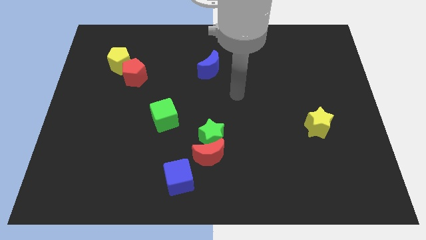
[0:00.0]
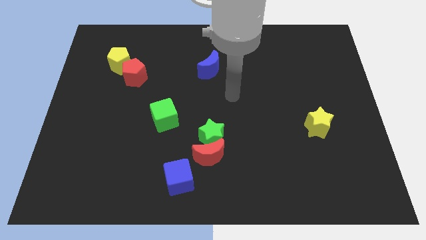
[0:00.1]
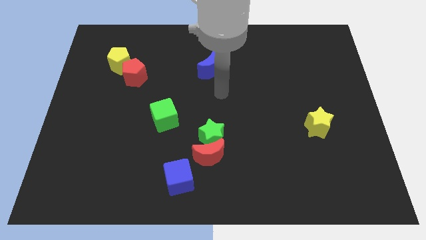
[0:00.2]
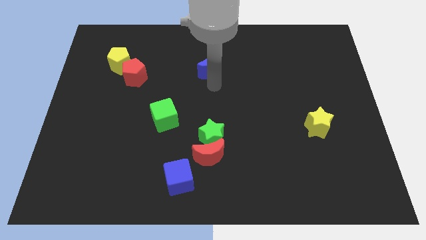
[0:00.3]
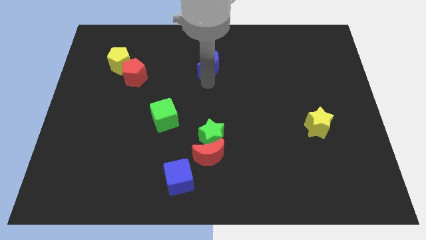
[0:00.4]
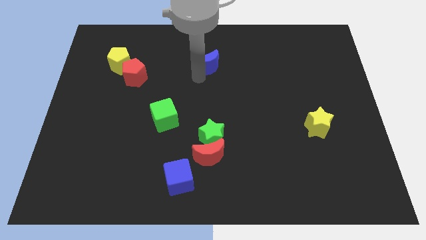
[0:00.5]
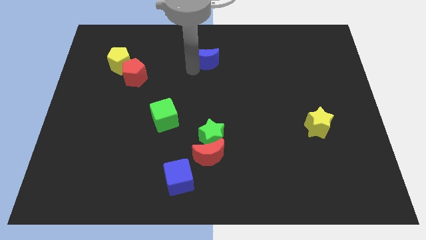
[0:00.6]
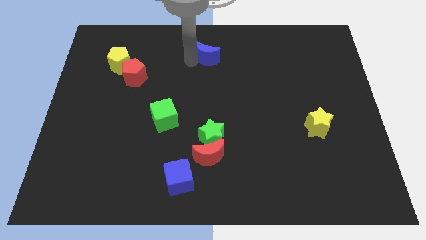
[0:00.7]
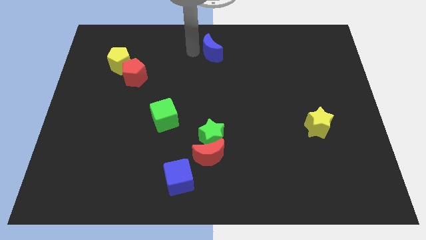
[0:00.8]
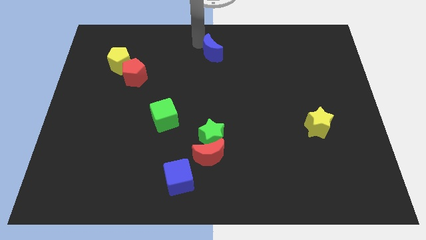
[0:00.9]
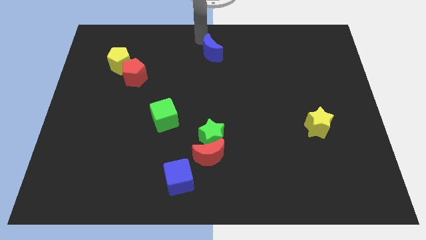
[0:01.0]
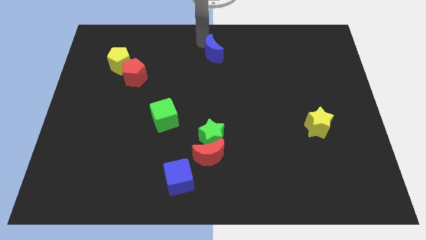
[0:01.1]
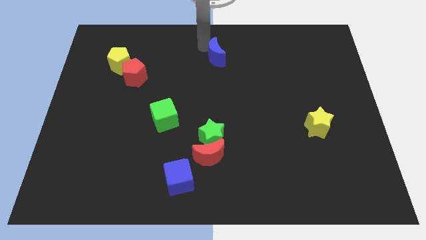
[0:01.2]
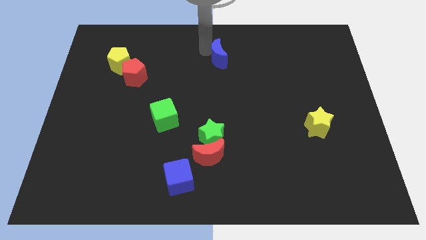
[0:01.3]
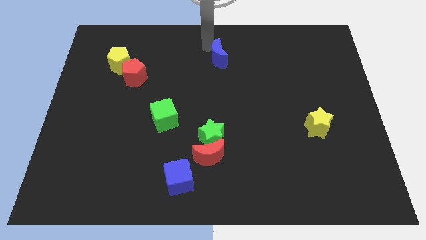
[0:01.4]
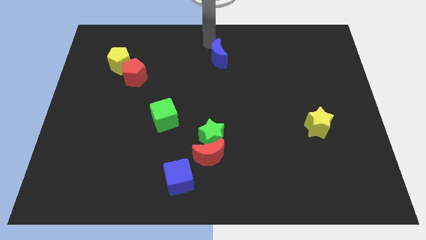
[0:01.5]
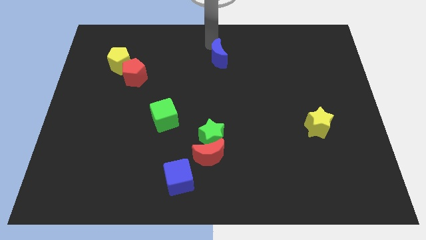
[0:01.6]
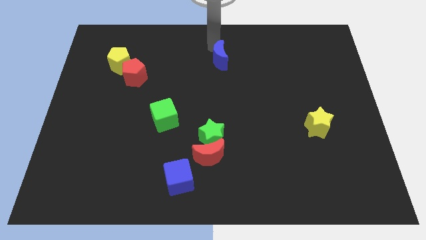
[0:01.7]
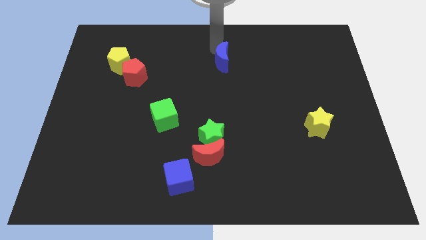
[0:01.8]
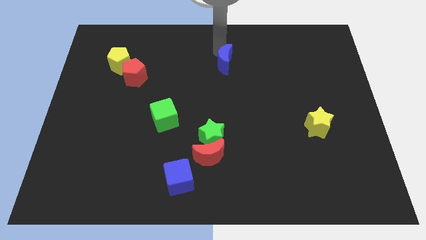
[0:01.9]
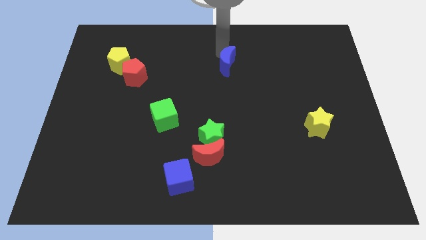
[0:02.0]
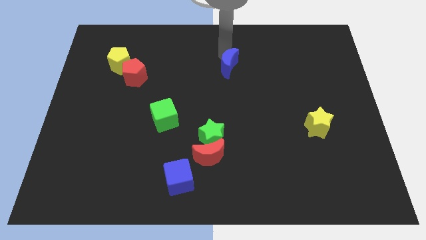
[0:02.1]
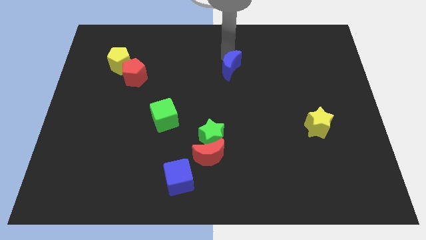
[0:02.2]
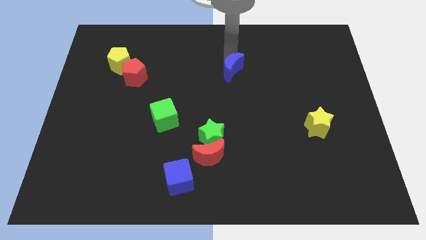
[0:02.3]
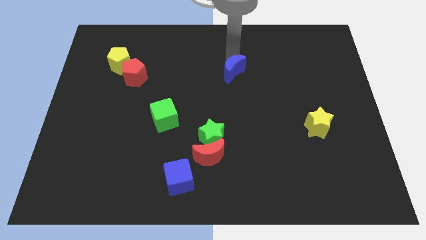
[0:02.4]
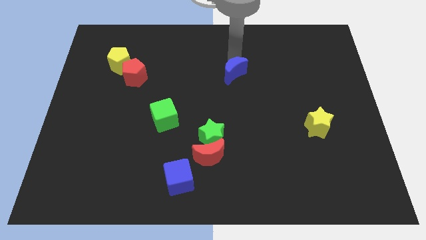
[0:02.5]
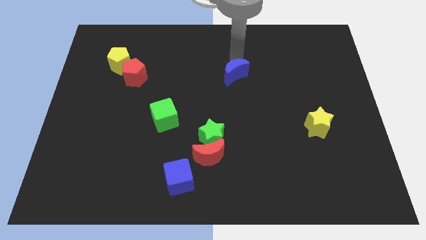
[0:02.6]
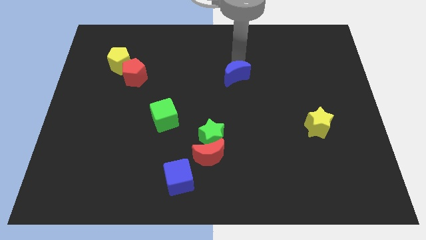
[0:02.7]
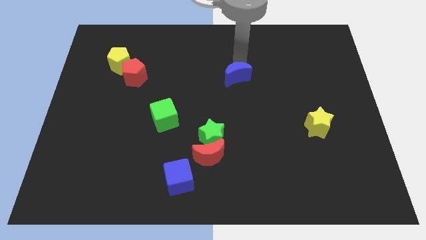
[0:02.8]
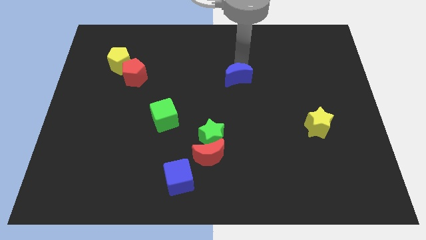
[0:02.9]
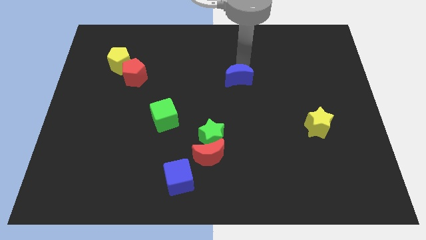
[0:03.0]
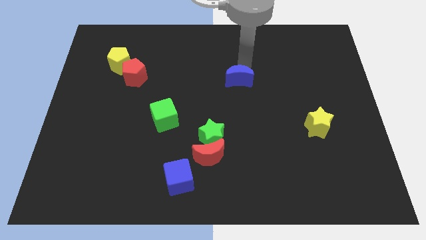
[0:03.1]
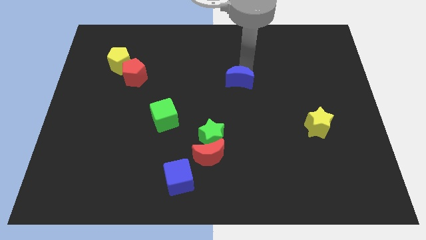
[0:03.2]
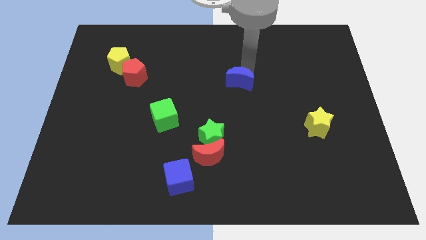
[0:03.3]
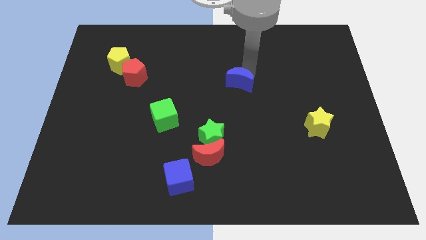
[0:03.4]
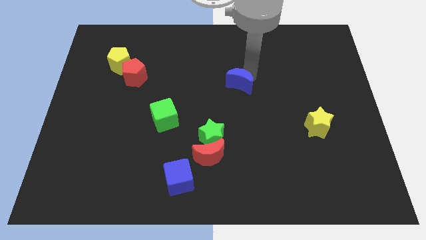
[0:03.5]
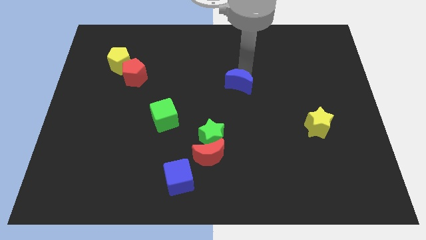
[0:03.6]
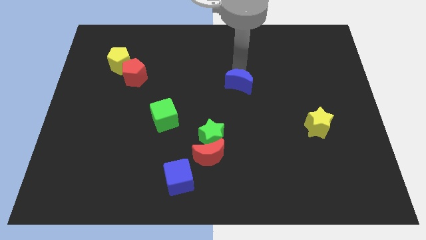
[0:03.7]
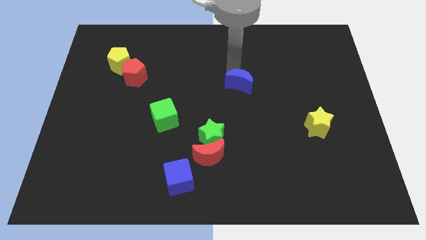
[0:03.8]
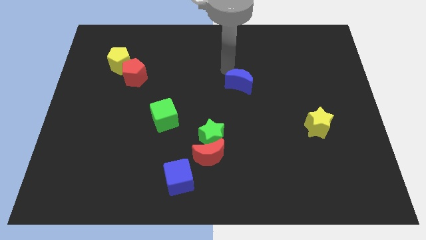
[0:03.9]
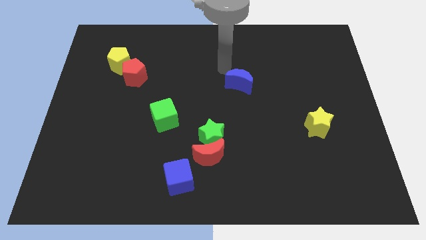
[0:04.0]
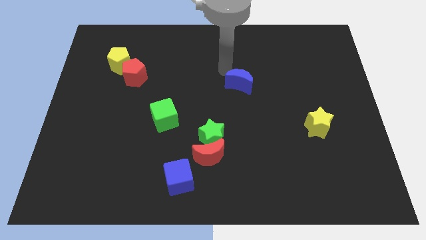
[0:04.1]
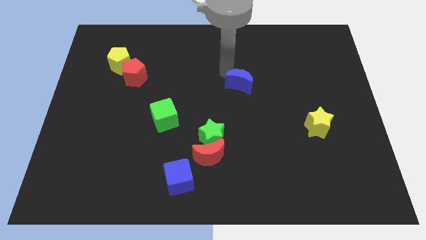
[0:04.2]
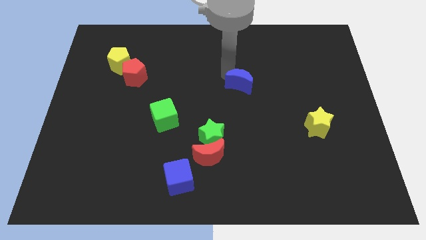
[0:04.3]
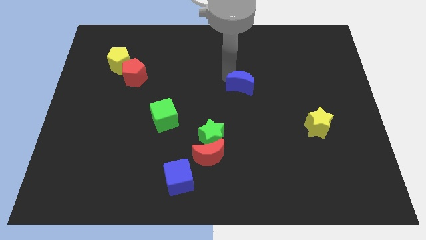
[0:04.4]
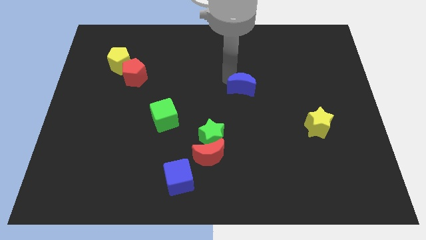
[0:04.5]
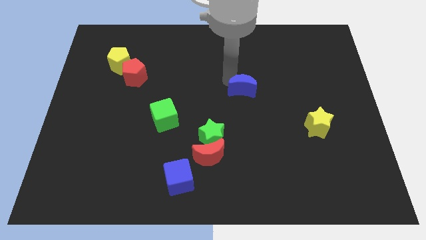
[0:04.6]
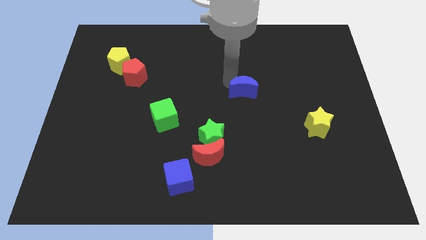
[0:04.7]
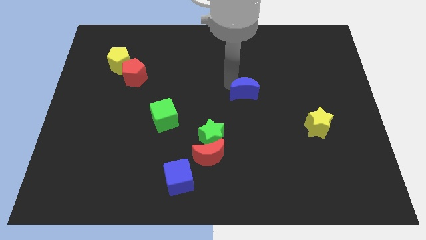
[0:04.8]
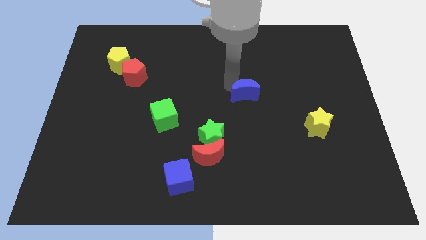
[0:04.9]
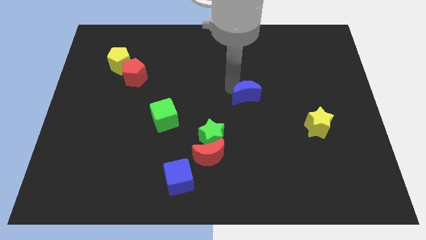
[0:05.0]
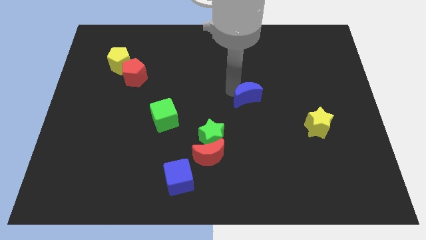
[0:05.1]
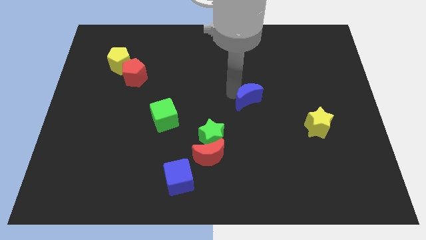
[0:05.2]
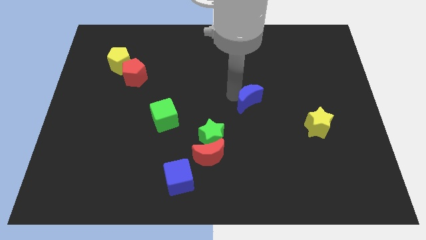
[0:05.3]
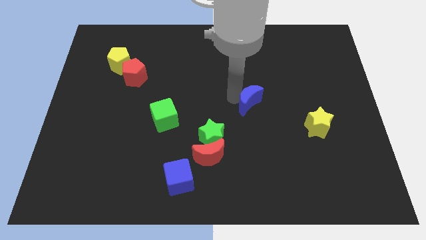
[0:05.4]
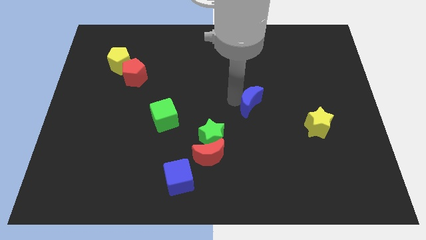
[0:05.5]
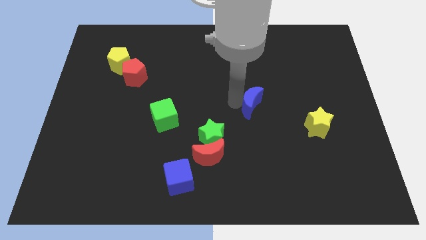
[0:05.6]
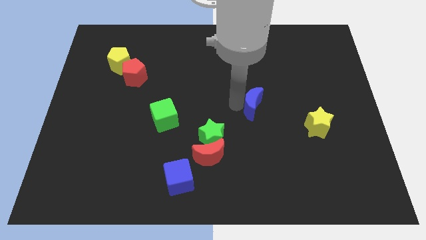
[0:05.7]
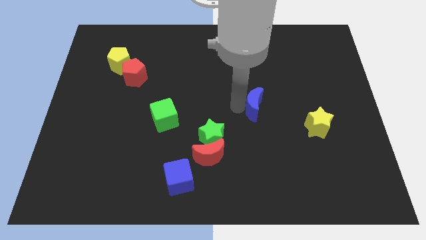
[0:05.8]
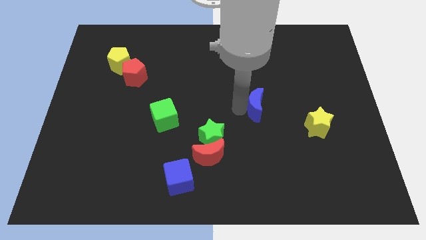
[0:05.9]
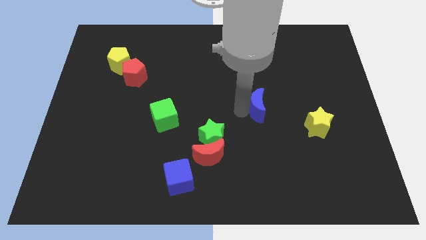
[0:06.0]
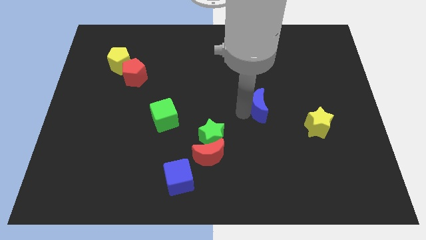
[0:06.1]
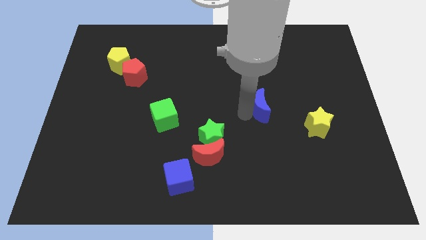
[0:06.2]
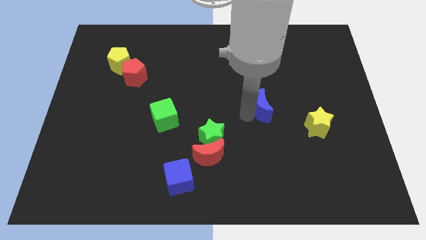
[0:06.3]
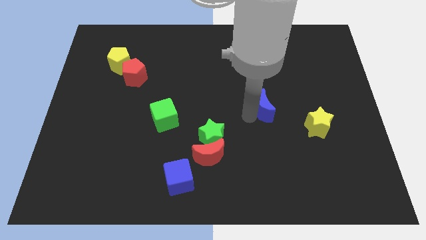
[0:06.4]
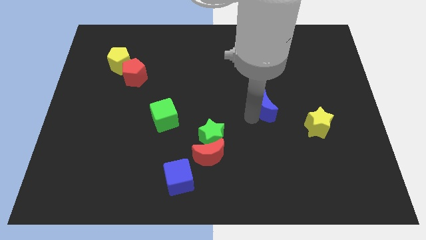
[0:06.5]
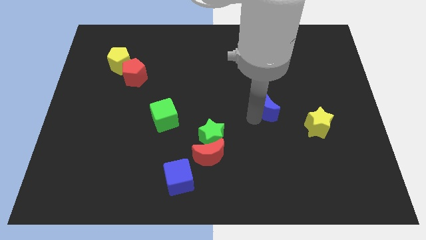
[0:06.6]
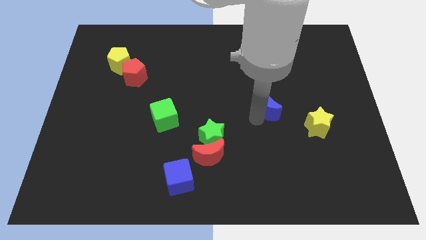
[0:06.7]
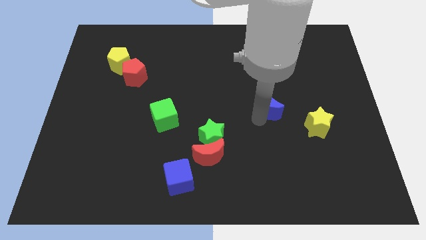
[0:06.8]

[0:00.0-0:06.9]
push the blue moon diagonally up and to the left of the yellow star

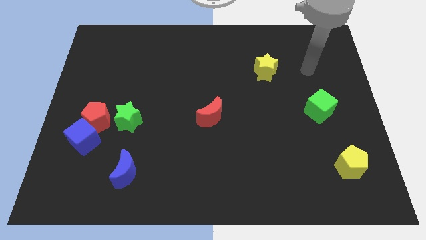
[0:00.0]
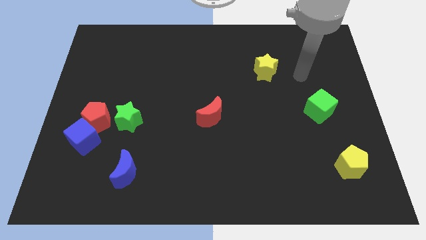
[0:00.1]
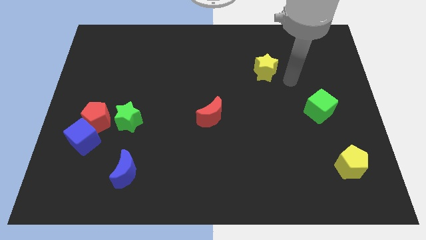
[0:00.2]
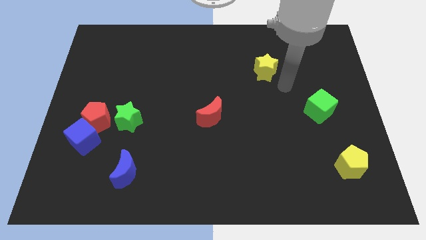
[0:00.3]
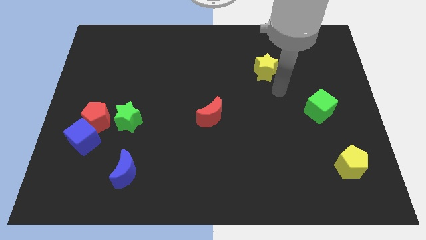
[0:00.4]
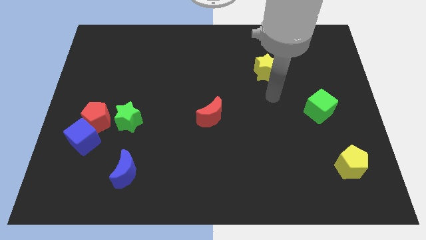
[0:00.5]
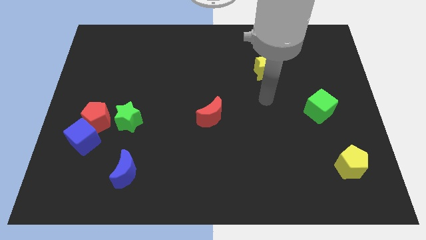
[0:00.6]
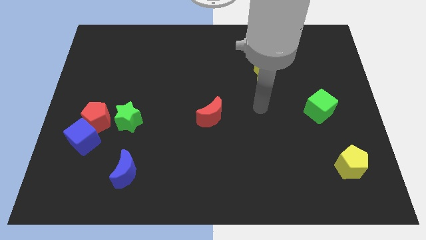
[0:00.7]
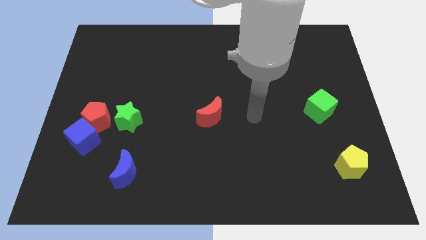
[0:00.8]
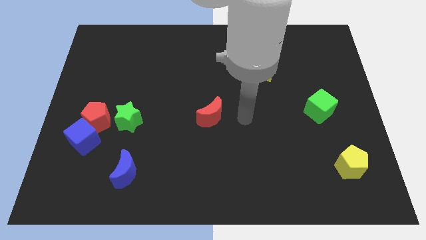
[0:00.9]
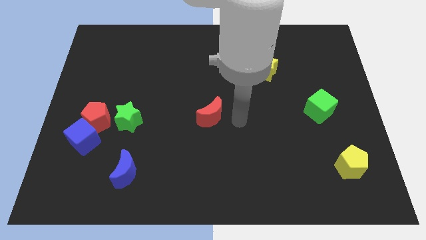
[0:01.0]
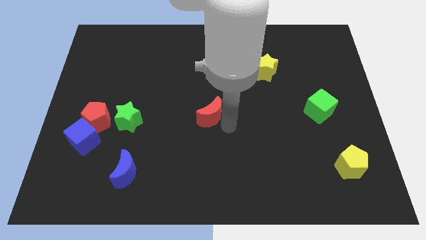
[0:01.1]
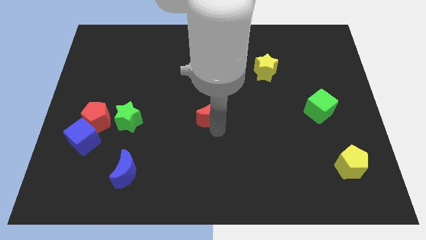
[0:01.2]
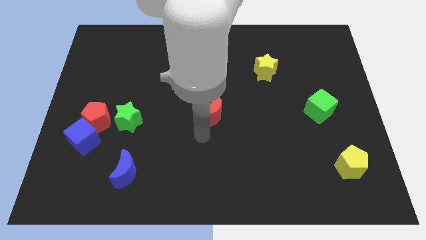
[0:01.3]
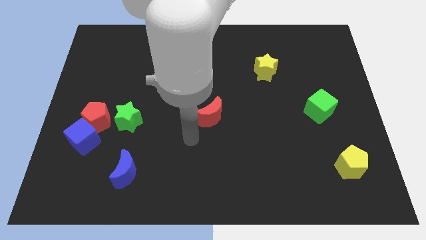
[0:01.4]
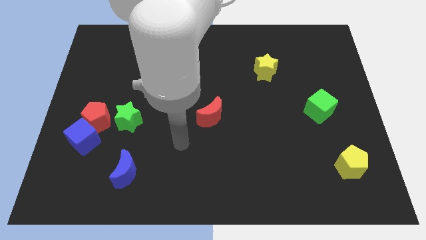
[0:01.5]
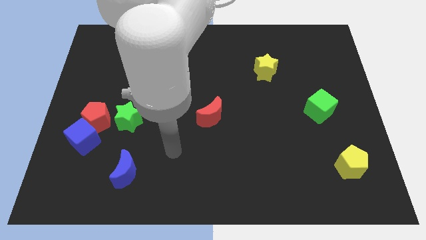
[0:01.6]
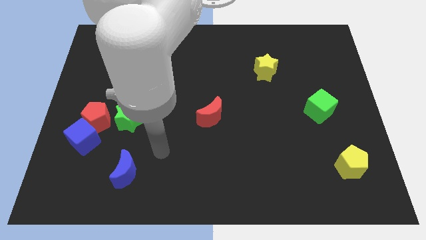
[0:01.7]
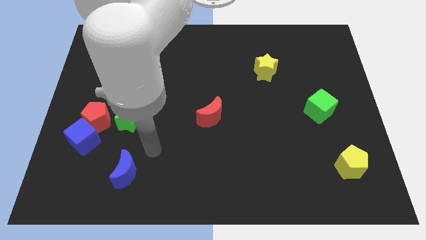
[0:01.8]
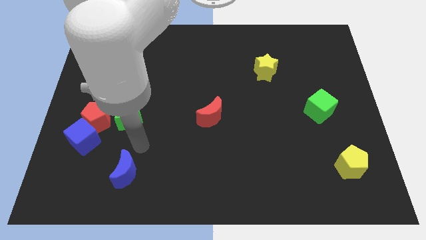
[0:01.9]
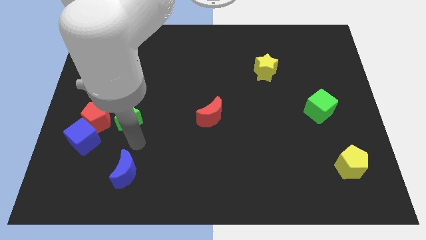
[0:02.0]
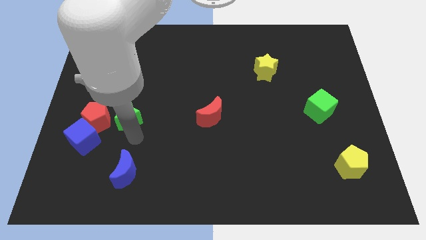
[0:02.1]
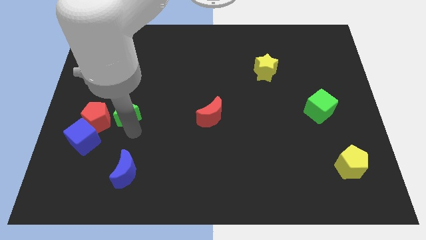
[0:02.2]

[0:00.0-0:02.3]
move the green star diagonally up and to the right of the red pentagon
